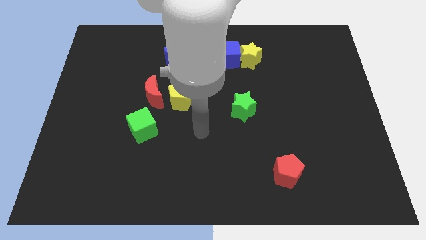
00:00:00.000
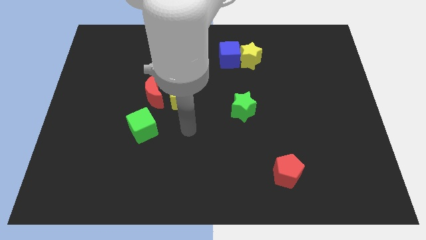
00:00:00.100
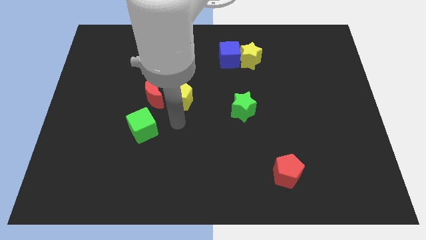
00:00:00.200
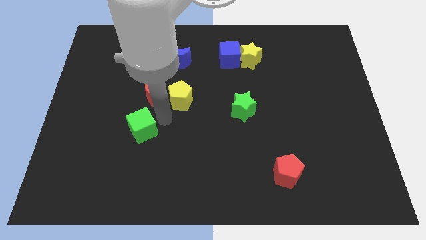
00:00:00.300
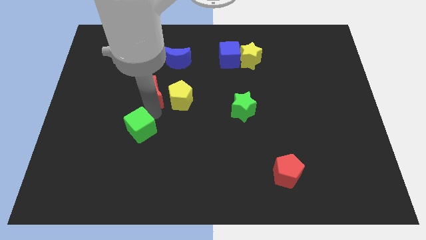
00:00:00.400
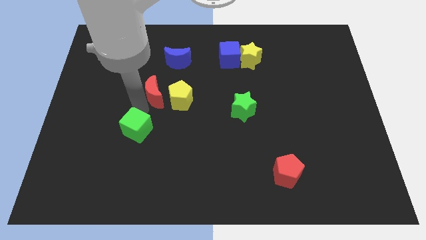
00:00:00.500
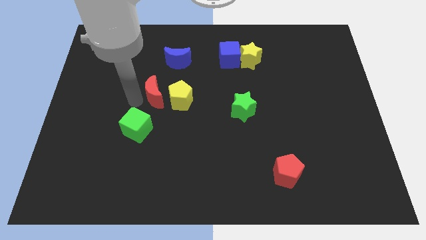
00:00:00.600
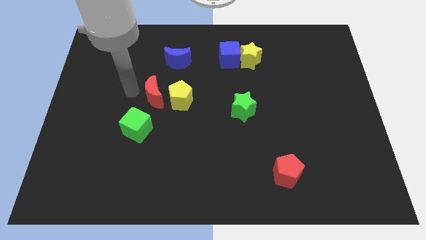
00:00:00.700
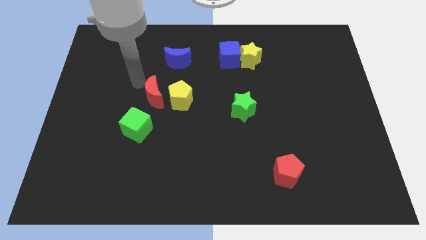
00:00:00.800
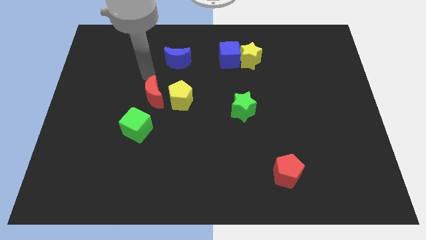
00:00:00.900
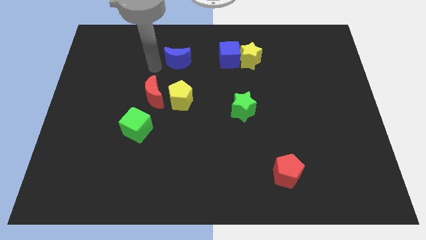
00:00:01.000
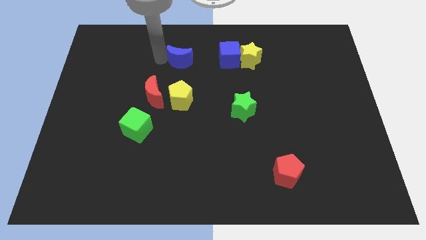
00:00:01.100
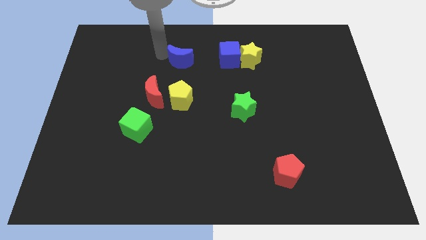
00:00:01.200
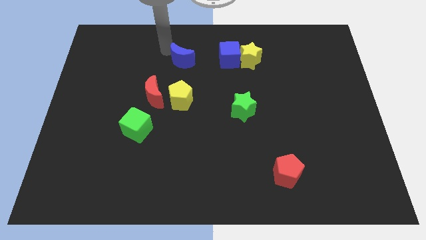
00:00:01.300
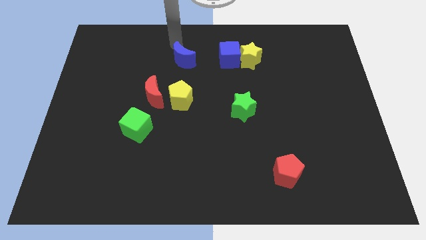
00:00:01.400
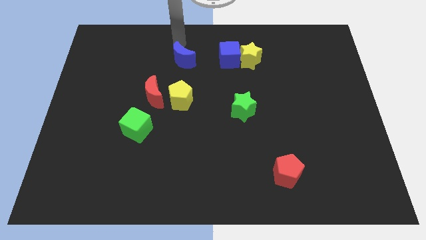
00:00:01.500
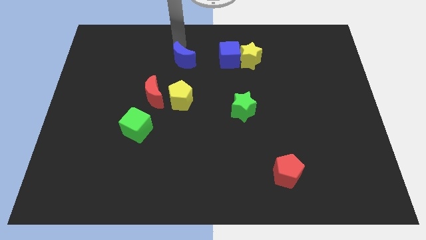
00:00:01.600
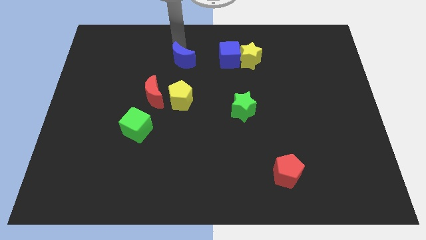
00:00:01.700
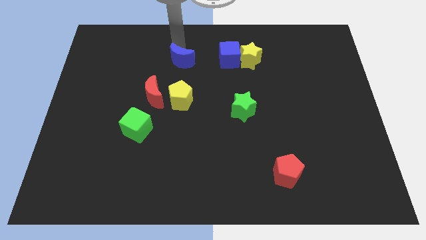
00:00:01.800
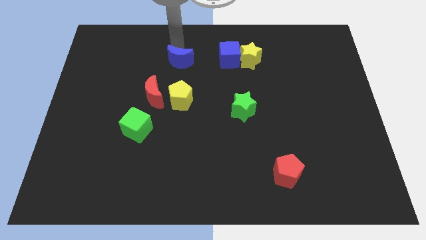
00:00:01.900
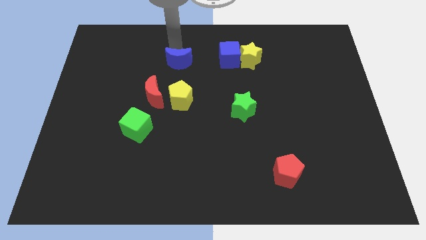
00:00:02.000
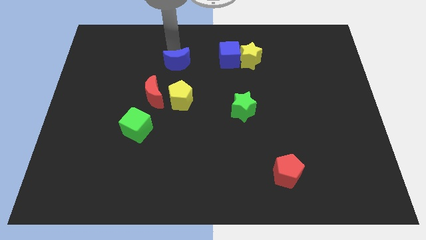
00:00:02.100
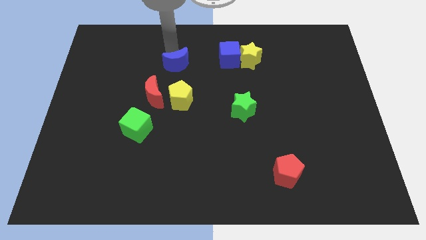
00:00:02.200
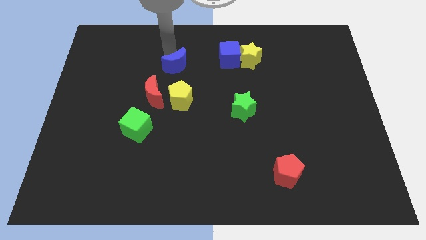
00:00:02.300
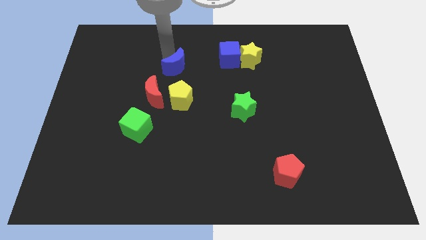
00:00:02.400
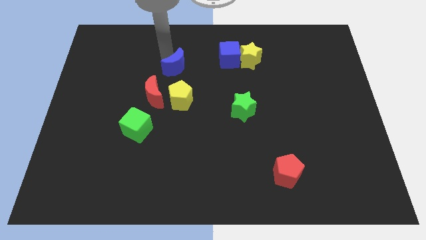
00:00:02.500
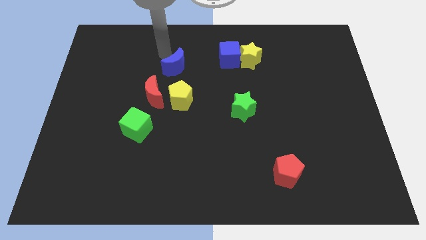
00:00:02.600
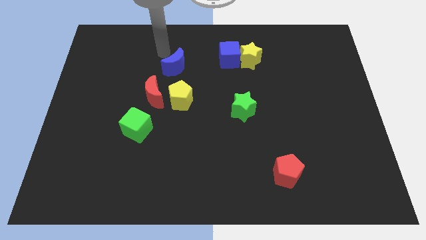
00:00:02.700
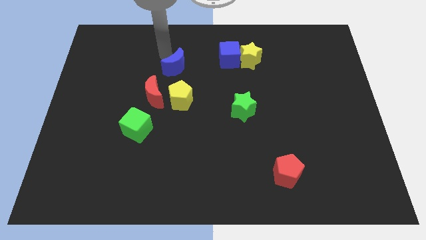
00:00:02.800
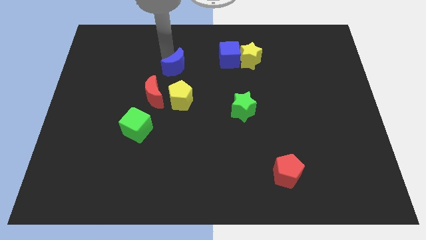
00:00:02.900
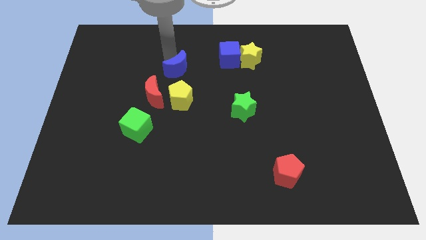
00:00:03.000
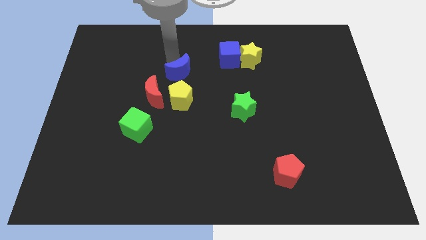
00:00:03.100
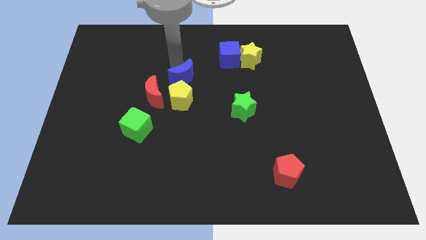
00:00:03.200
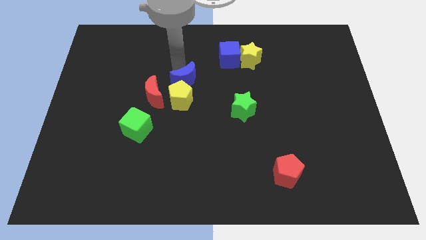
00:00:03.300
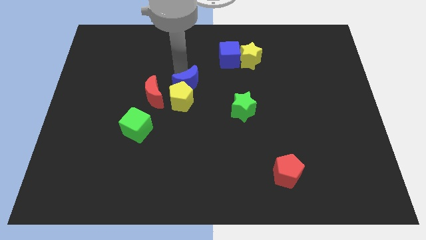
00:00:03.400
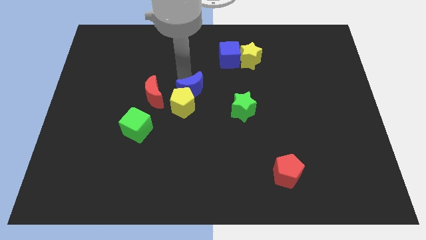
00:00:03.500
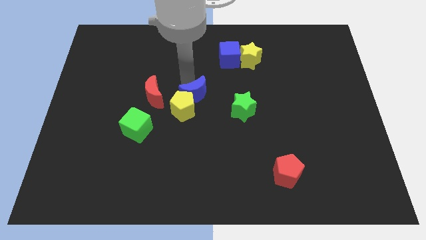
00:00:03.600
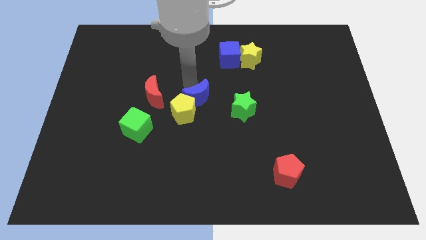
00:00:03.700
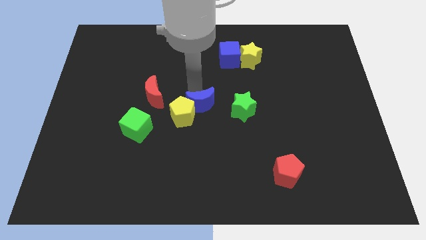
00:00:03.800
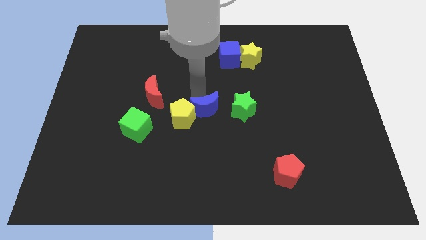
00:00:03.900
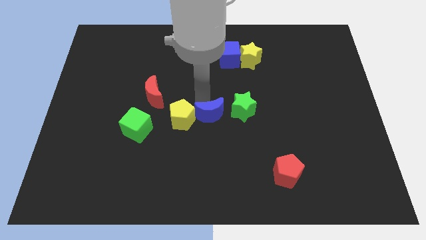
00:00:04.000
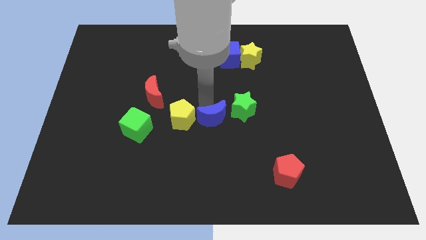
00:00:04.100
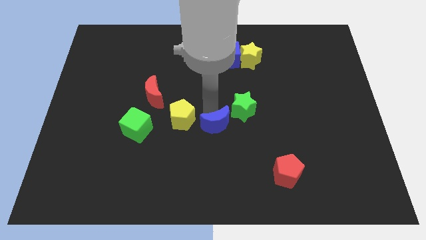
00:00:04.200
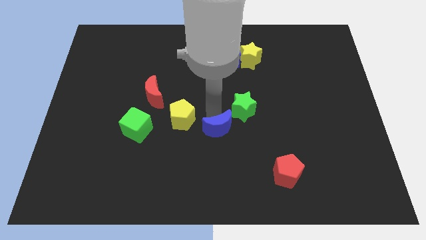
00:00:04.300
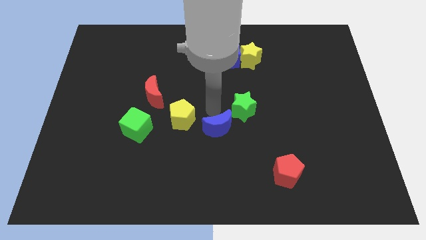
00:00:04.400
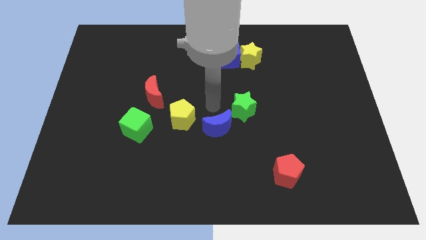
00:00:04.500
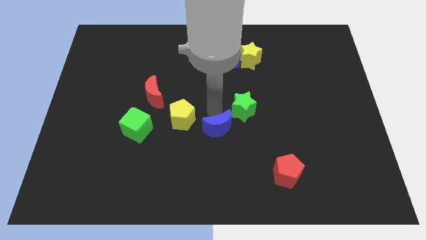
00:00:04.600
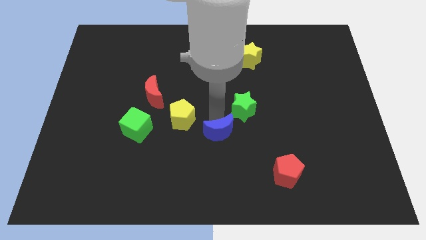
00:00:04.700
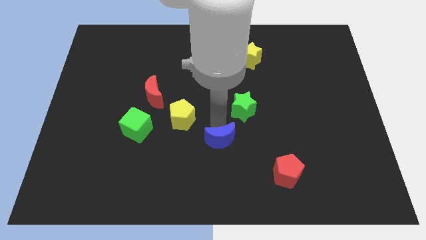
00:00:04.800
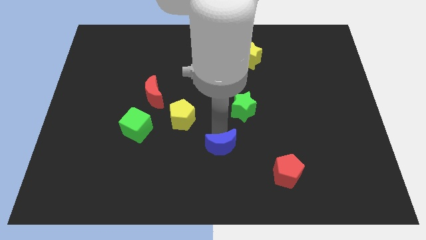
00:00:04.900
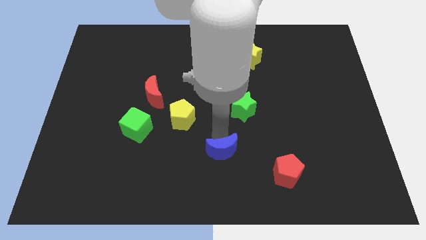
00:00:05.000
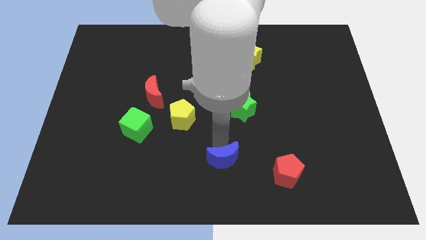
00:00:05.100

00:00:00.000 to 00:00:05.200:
move the blue moon just left of the red pentagon

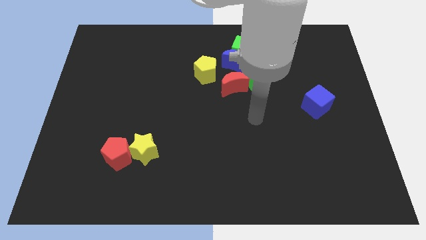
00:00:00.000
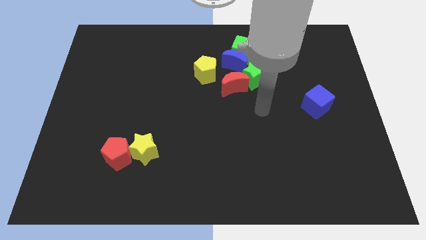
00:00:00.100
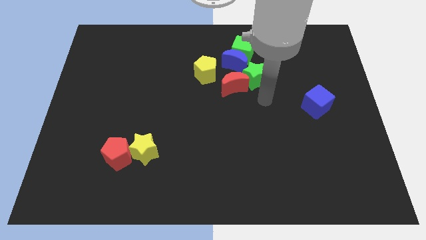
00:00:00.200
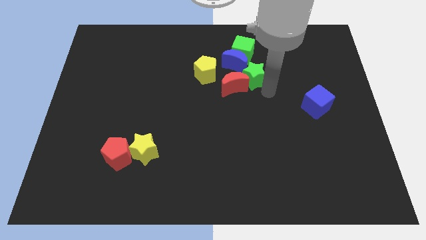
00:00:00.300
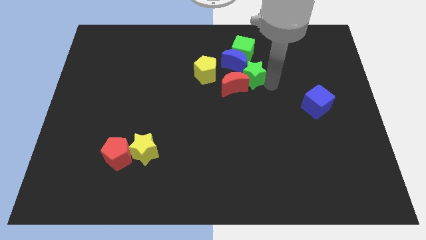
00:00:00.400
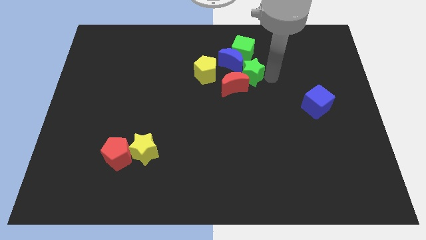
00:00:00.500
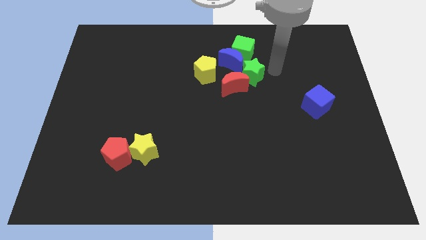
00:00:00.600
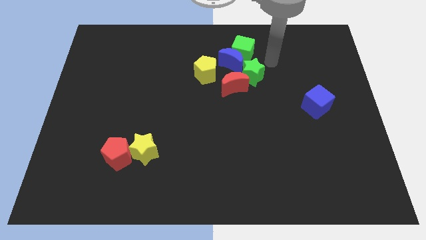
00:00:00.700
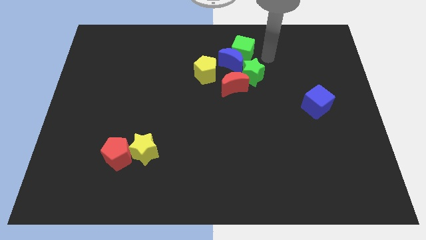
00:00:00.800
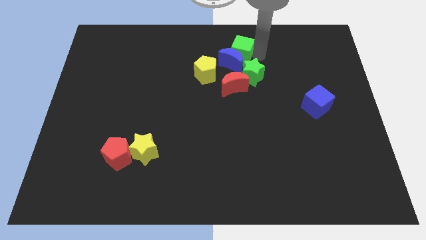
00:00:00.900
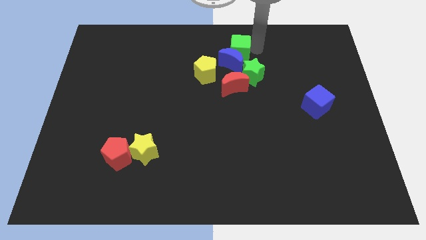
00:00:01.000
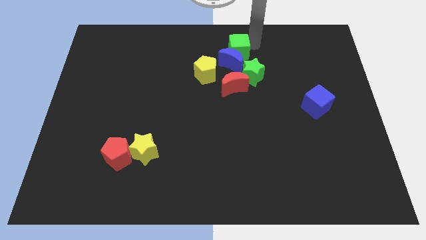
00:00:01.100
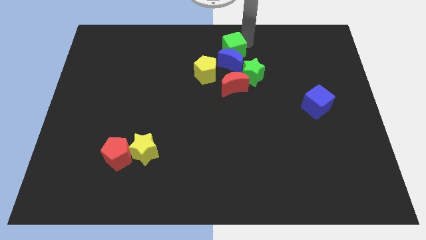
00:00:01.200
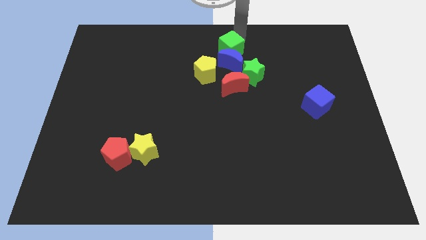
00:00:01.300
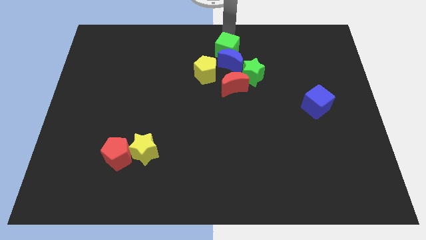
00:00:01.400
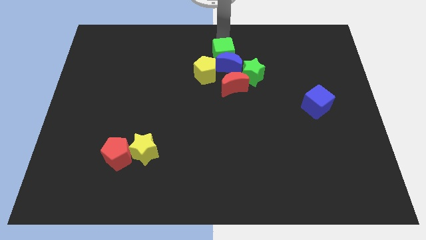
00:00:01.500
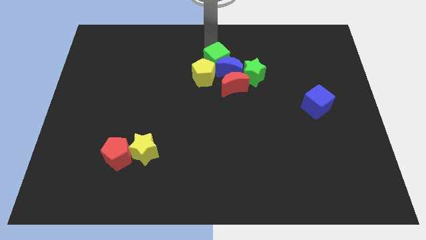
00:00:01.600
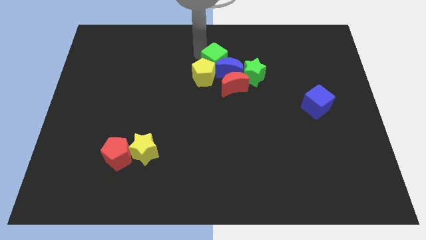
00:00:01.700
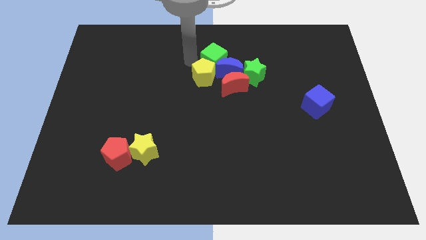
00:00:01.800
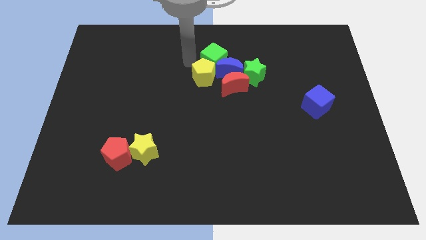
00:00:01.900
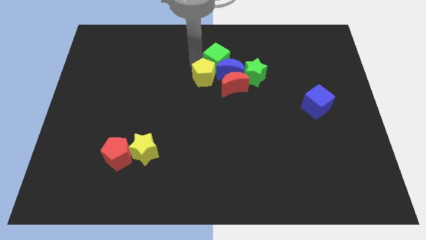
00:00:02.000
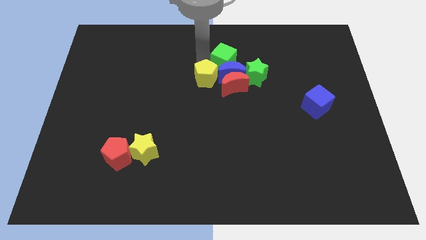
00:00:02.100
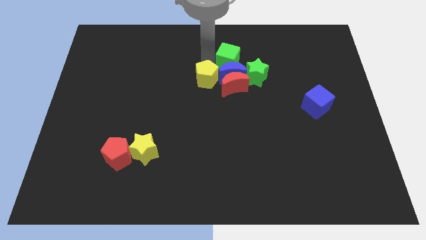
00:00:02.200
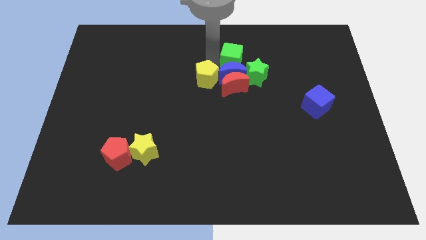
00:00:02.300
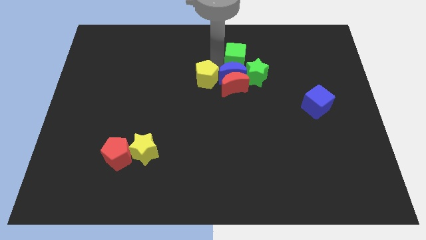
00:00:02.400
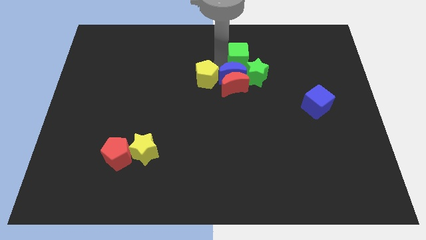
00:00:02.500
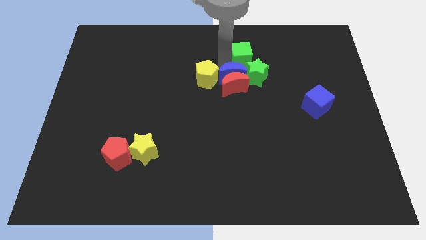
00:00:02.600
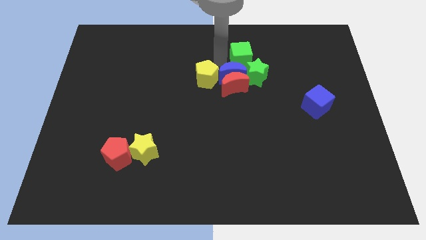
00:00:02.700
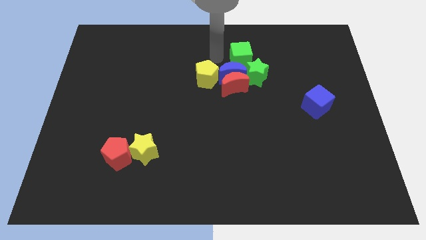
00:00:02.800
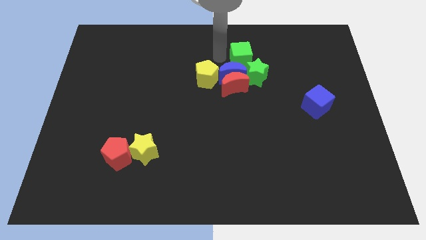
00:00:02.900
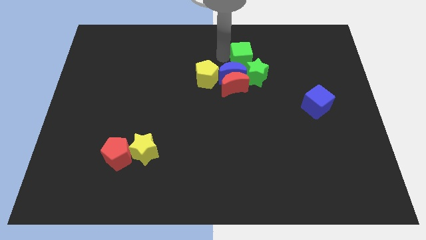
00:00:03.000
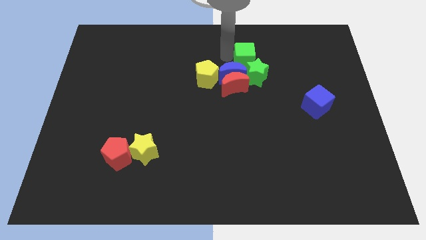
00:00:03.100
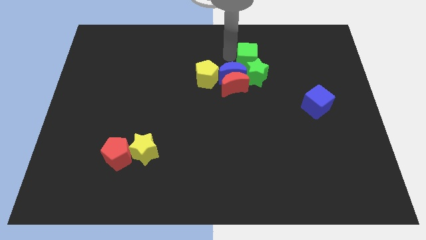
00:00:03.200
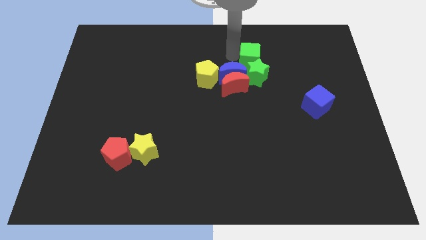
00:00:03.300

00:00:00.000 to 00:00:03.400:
slide the green cube to the top right side of the green star
